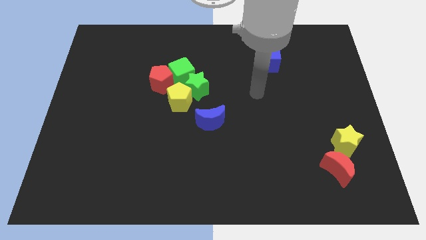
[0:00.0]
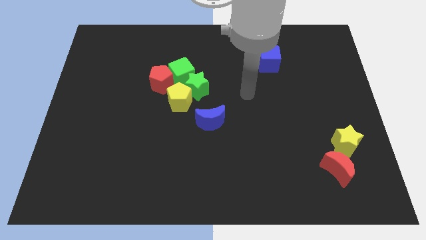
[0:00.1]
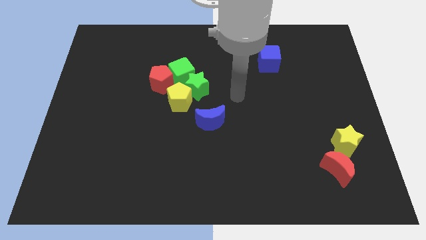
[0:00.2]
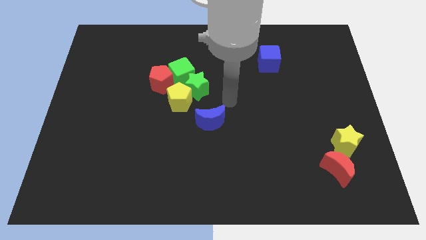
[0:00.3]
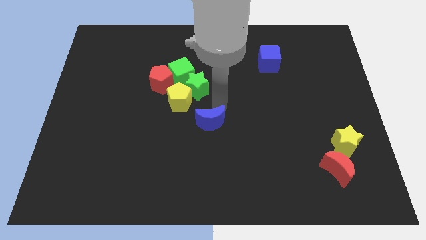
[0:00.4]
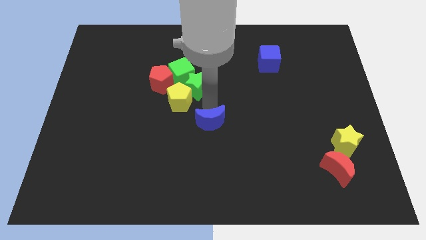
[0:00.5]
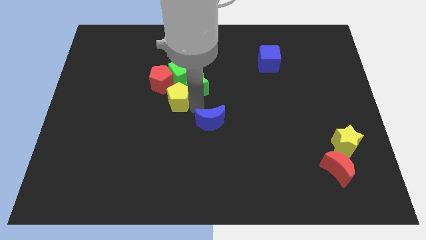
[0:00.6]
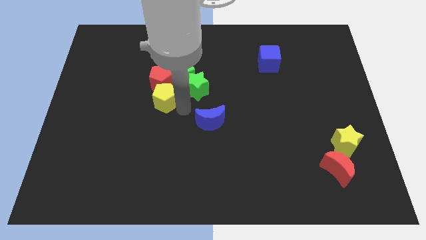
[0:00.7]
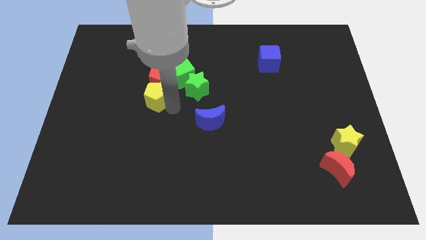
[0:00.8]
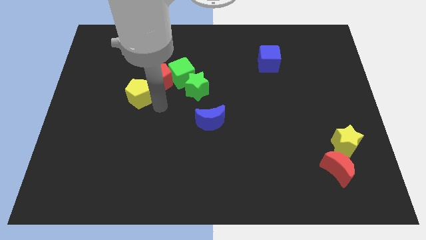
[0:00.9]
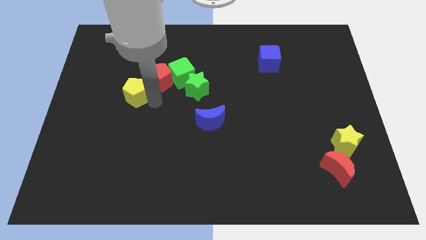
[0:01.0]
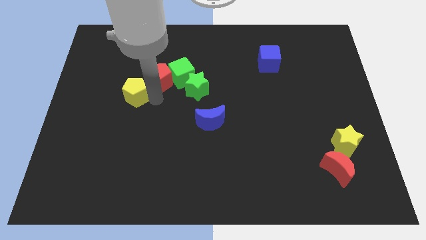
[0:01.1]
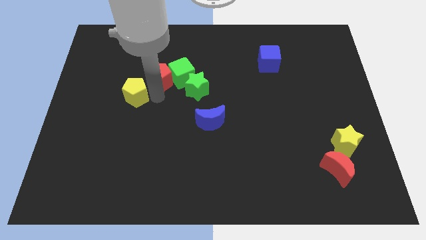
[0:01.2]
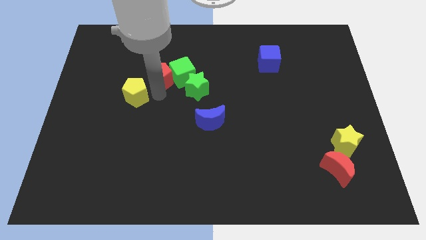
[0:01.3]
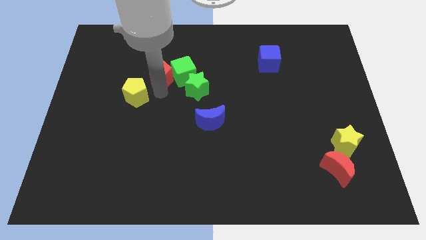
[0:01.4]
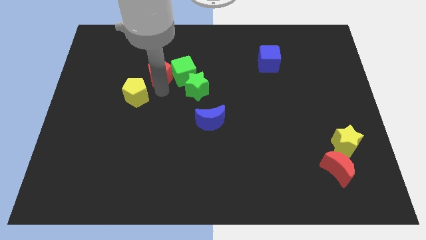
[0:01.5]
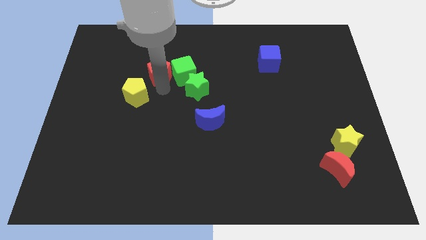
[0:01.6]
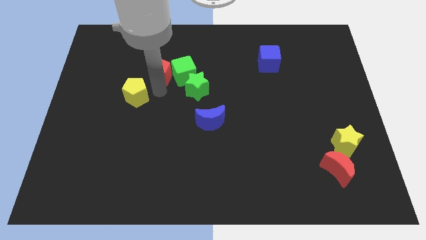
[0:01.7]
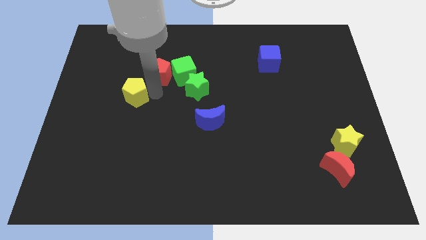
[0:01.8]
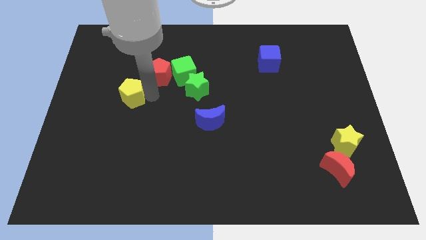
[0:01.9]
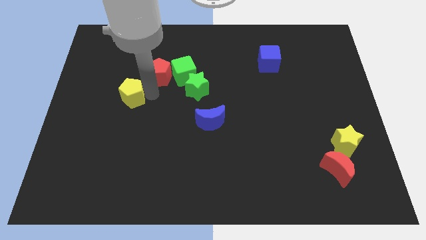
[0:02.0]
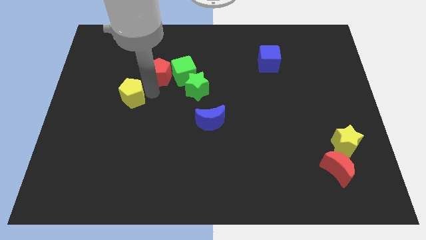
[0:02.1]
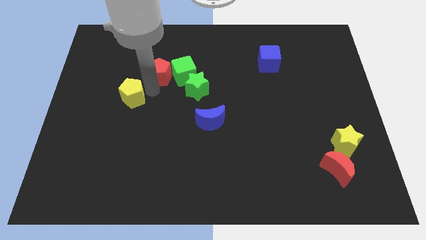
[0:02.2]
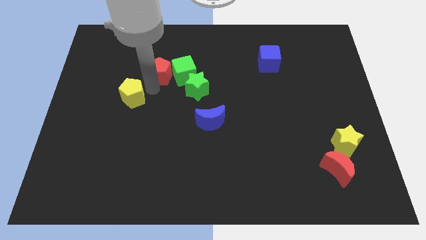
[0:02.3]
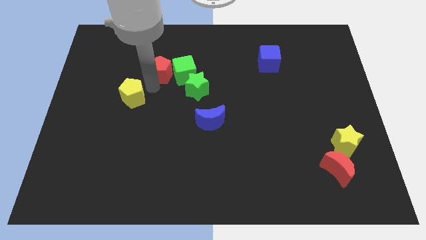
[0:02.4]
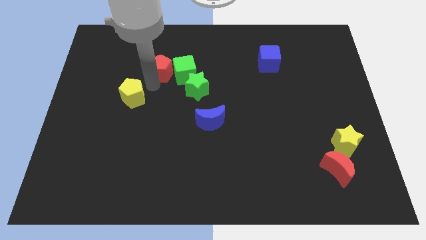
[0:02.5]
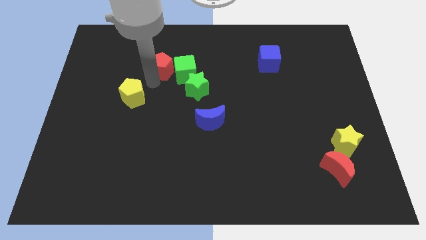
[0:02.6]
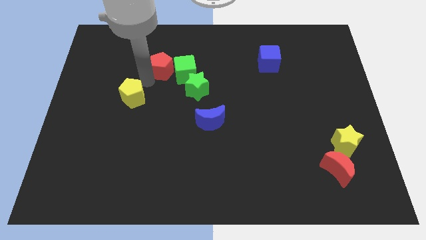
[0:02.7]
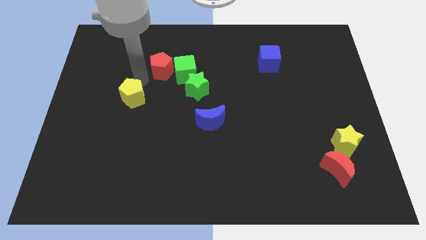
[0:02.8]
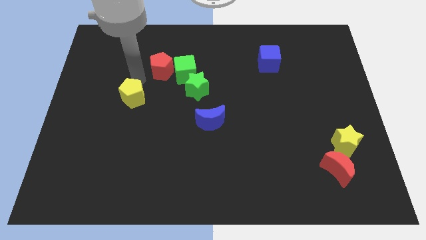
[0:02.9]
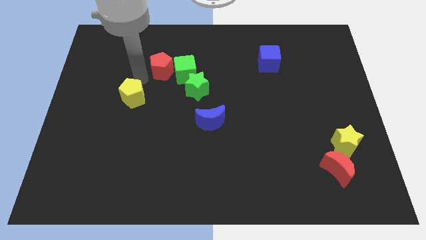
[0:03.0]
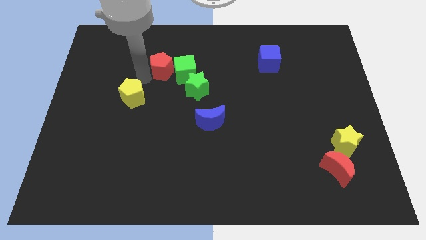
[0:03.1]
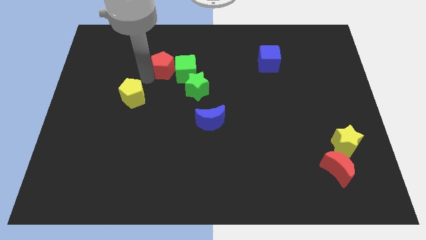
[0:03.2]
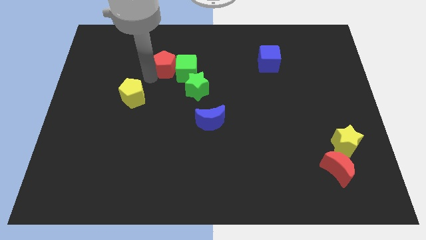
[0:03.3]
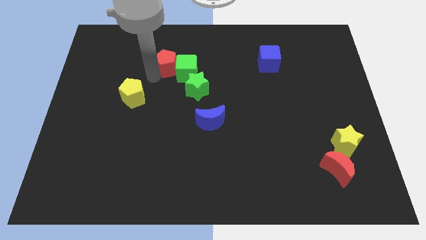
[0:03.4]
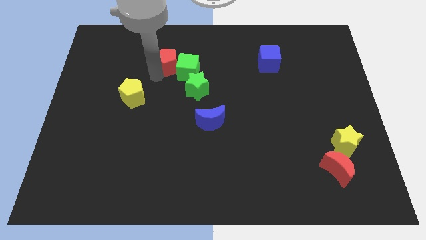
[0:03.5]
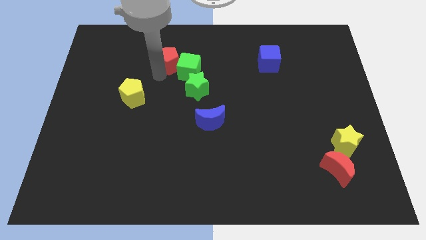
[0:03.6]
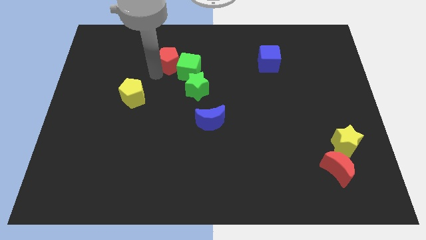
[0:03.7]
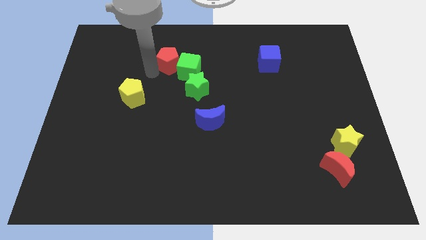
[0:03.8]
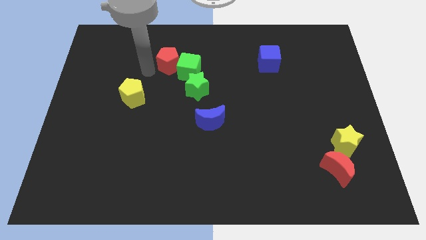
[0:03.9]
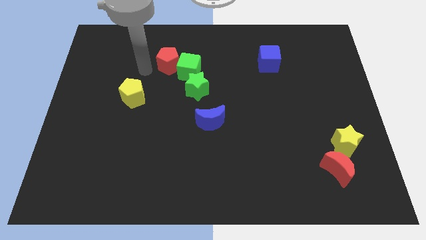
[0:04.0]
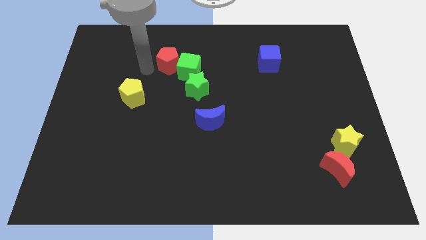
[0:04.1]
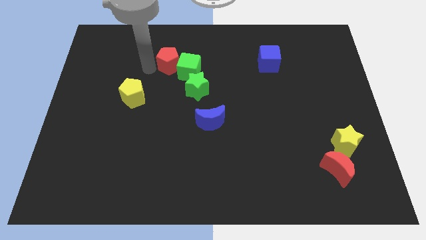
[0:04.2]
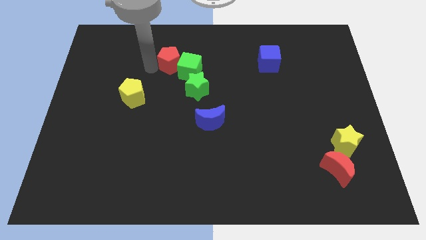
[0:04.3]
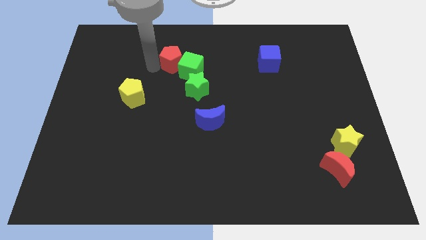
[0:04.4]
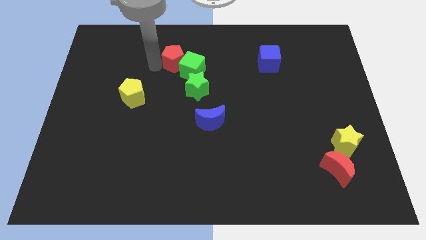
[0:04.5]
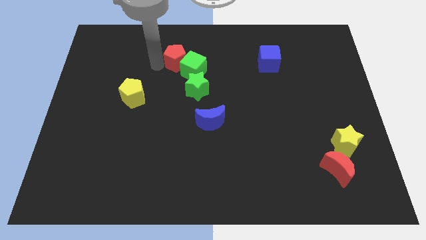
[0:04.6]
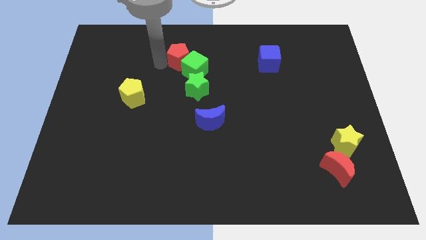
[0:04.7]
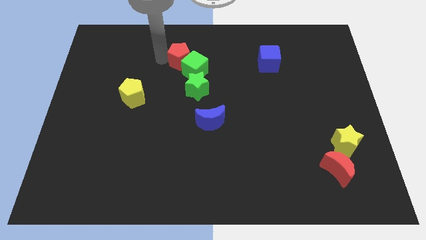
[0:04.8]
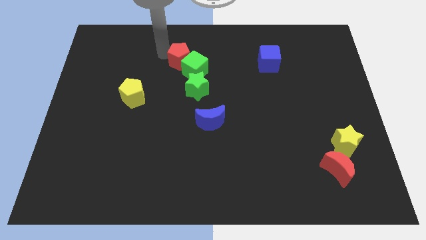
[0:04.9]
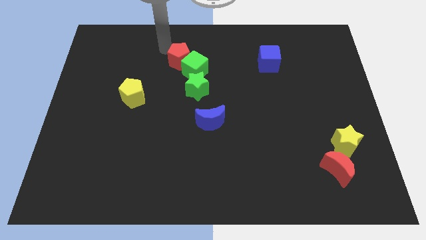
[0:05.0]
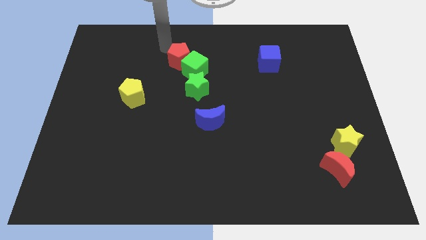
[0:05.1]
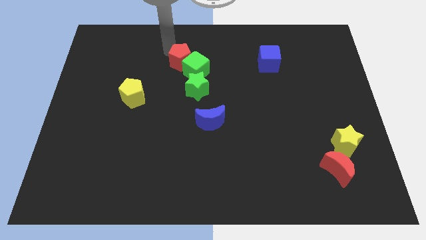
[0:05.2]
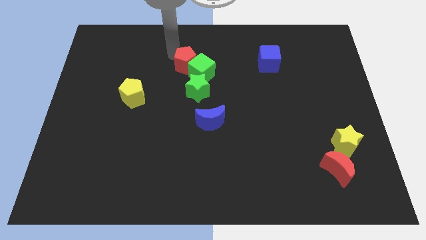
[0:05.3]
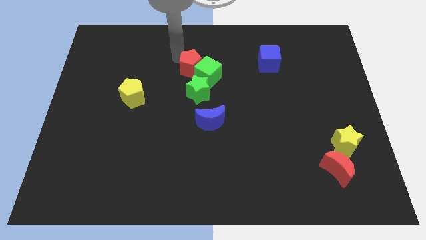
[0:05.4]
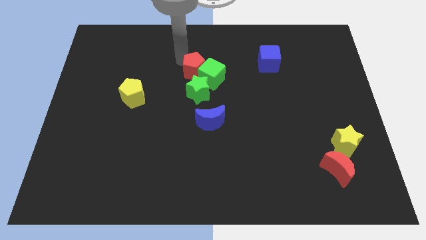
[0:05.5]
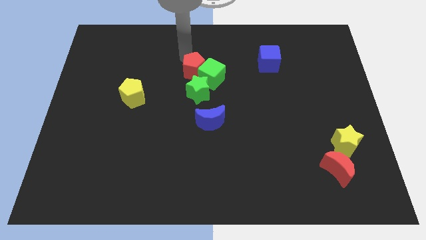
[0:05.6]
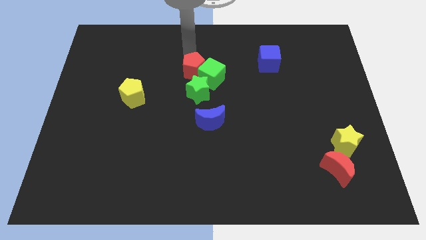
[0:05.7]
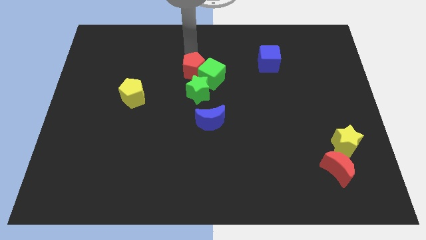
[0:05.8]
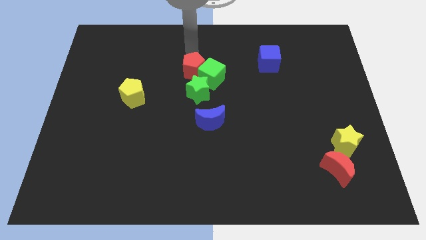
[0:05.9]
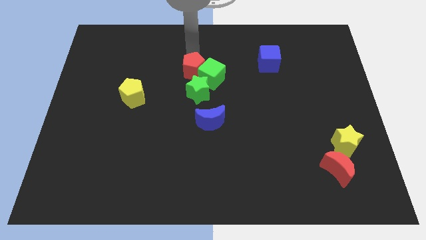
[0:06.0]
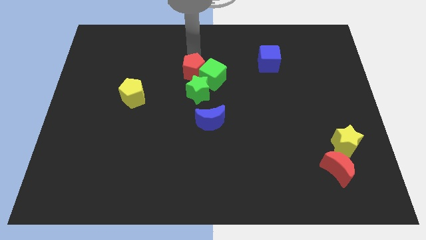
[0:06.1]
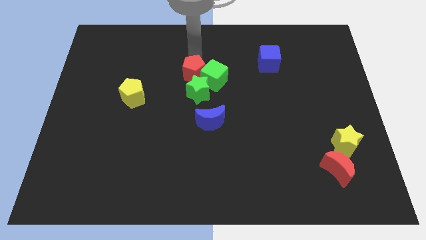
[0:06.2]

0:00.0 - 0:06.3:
move the red pentagon next to the green star

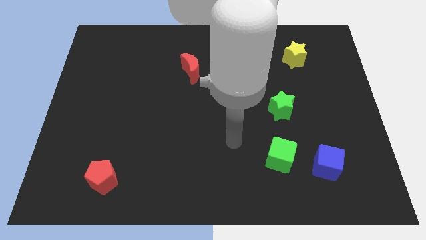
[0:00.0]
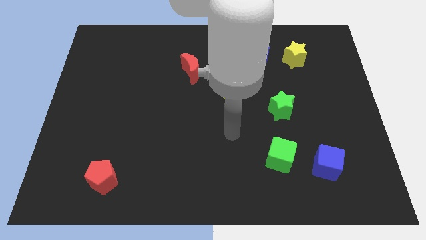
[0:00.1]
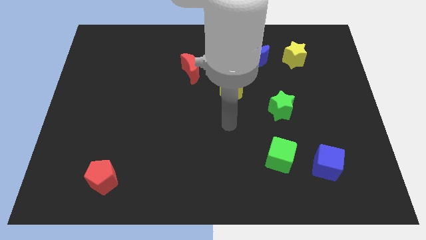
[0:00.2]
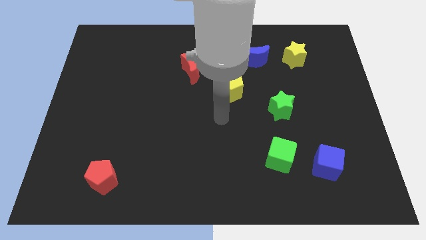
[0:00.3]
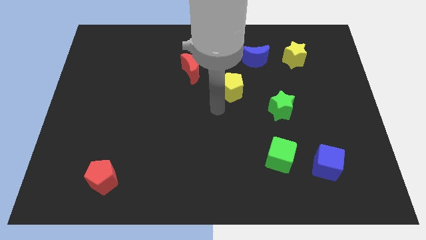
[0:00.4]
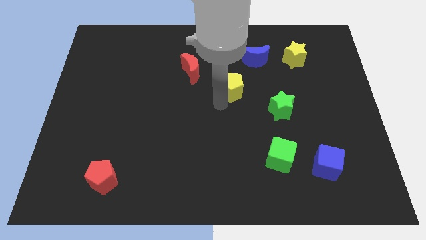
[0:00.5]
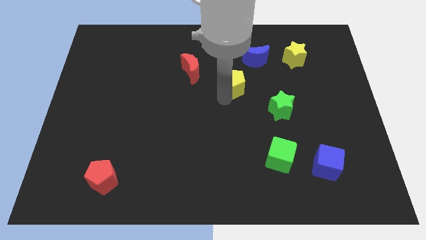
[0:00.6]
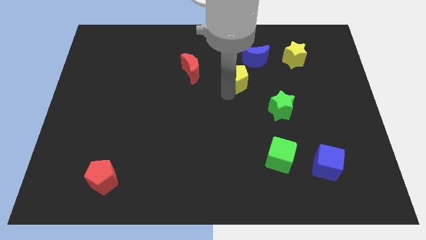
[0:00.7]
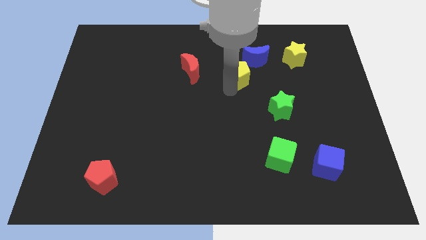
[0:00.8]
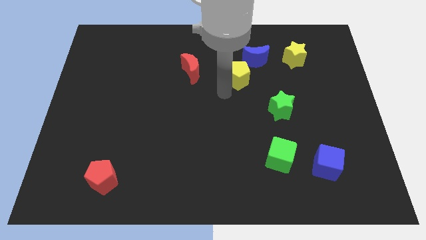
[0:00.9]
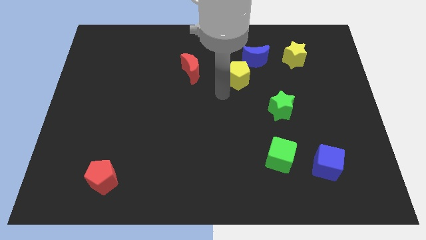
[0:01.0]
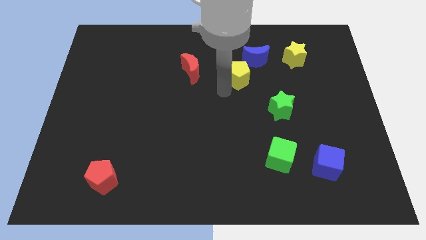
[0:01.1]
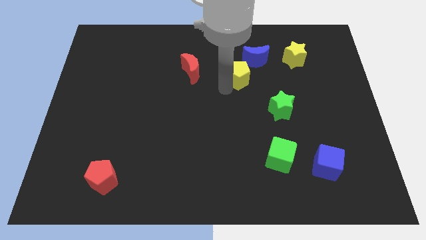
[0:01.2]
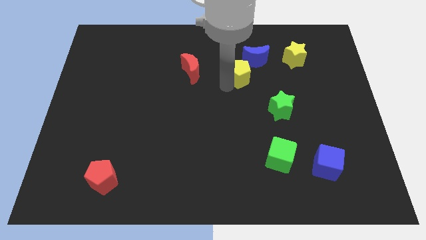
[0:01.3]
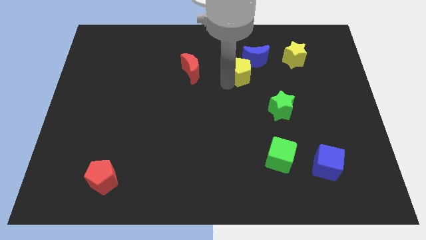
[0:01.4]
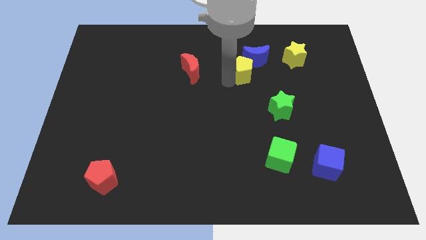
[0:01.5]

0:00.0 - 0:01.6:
push the yellow pentagon next to the blue moon
